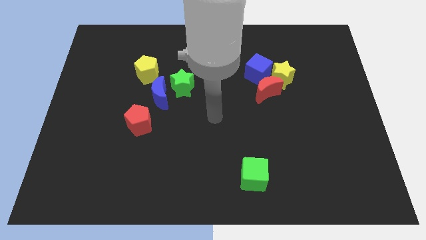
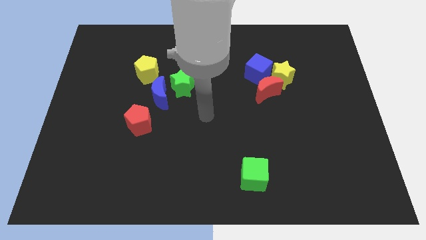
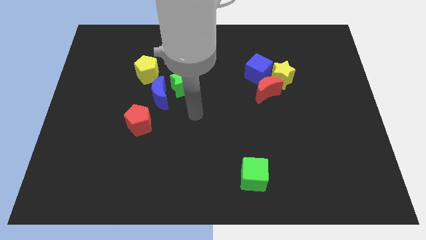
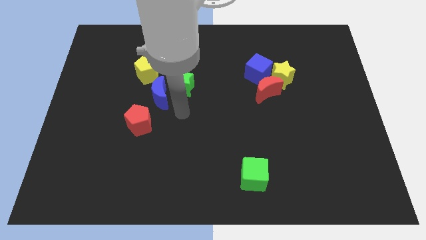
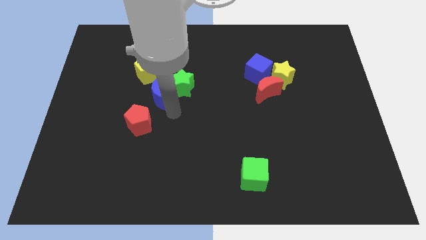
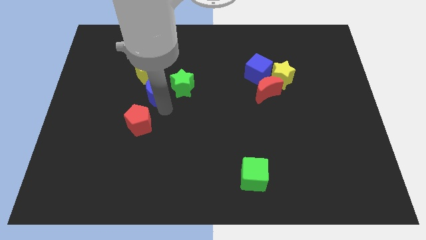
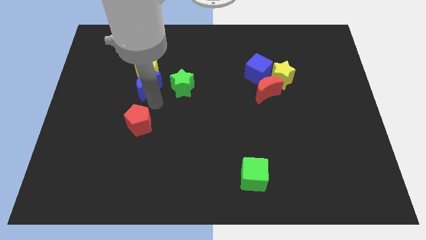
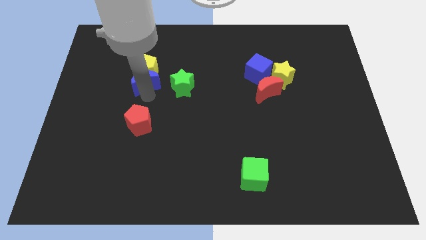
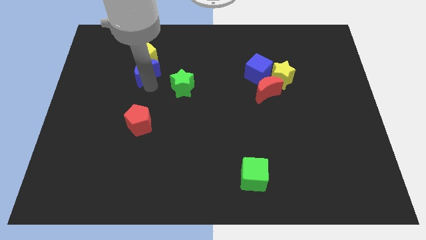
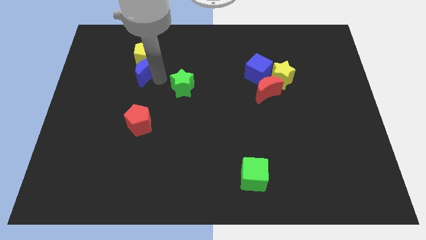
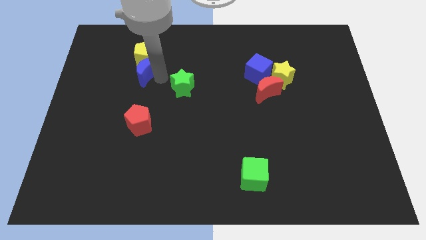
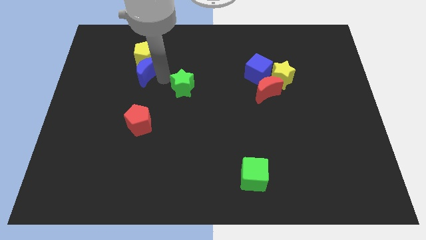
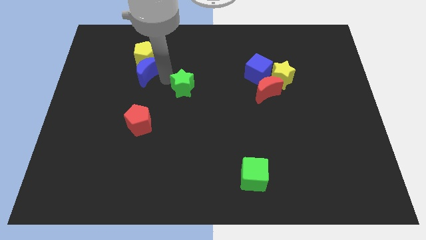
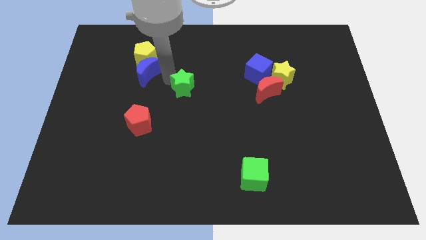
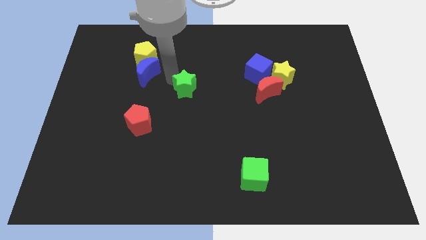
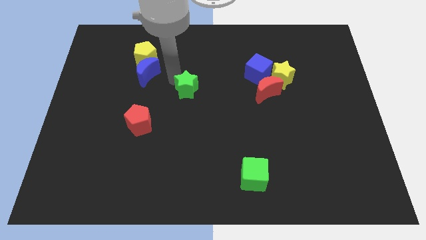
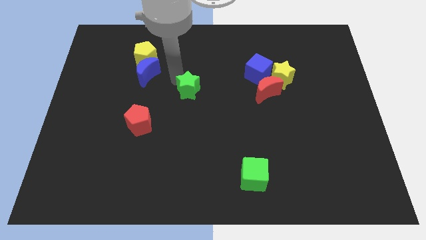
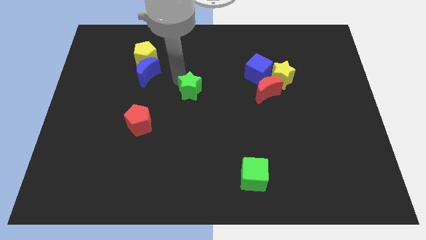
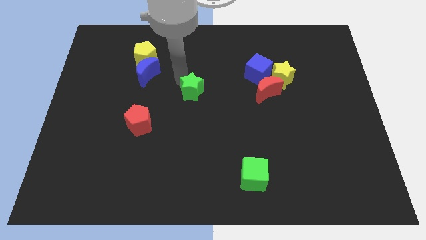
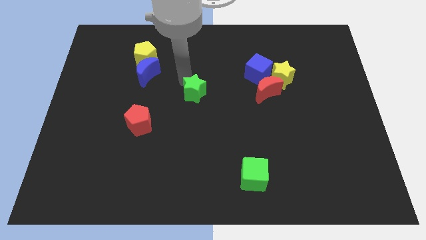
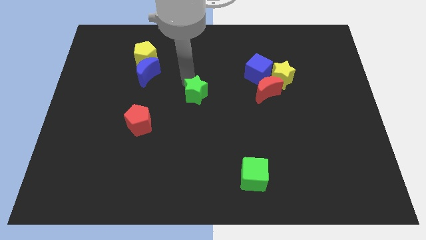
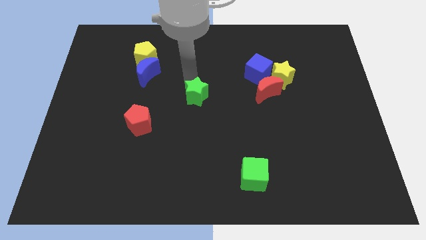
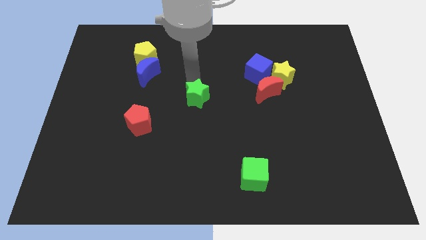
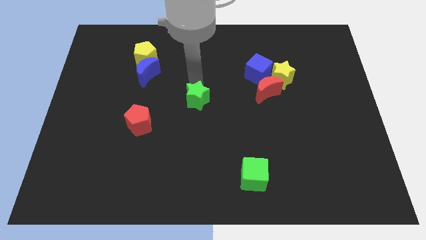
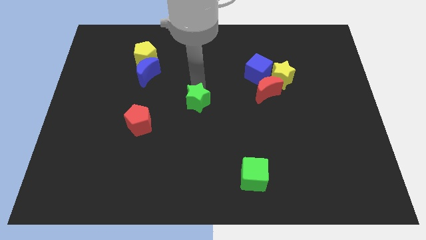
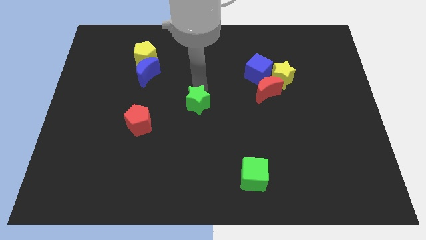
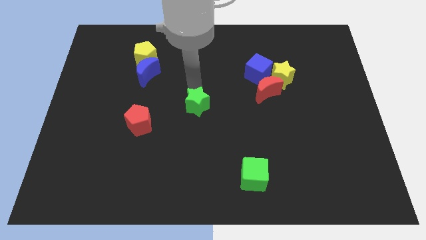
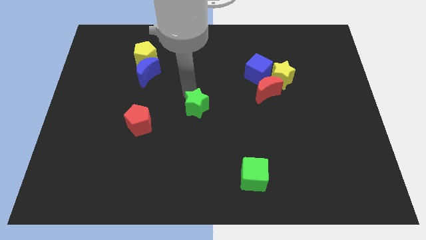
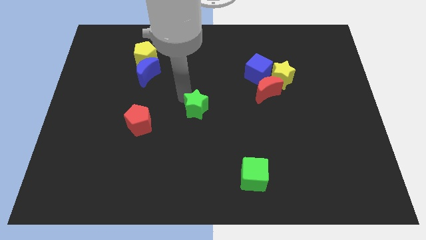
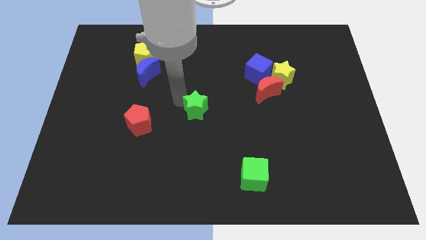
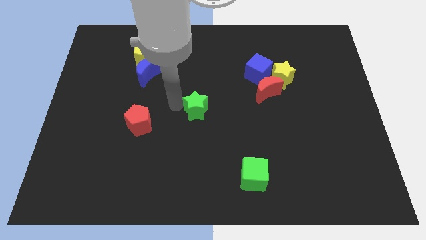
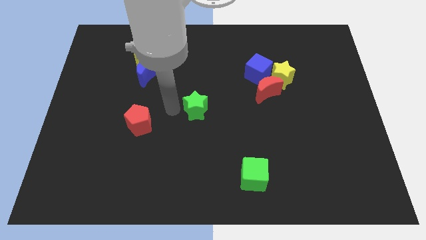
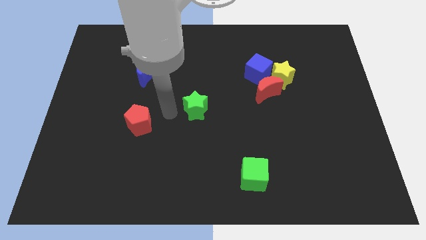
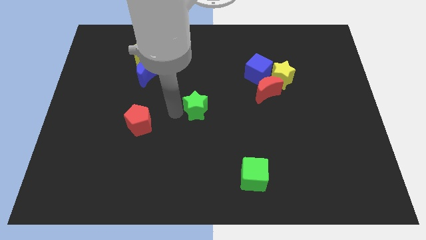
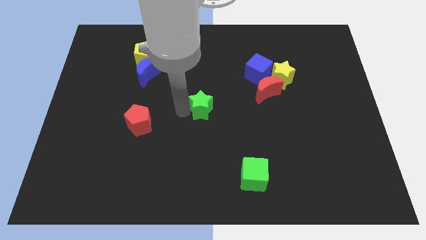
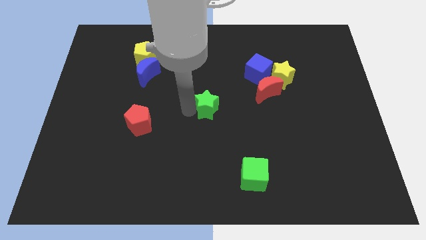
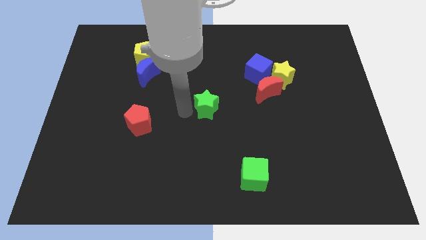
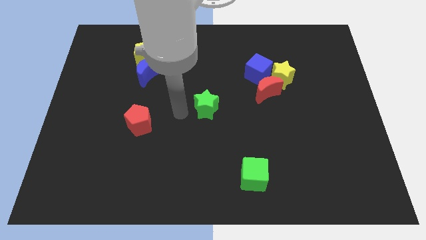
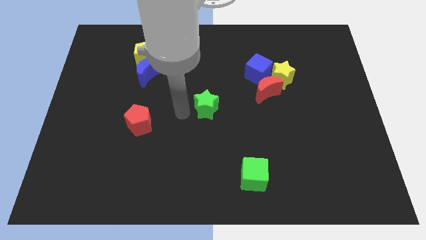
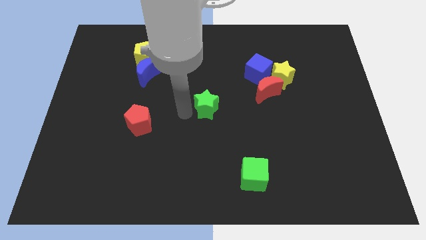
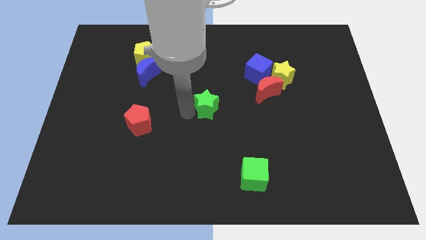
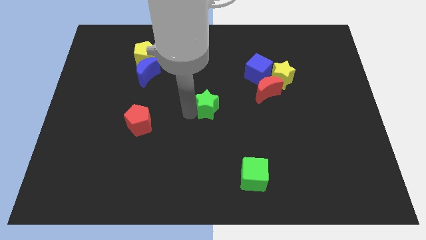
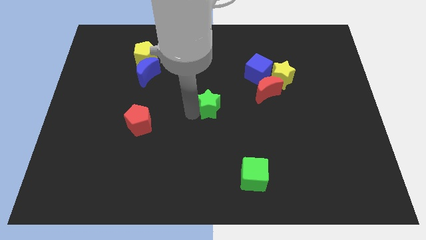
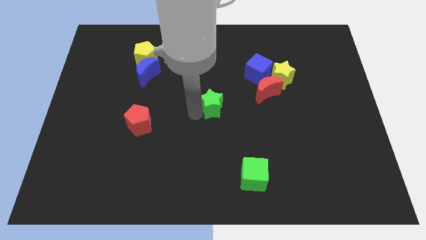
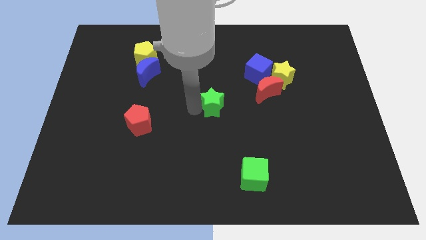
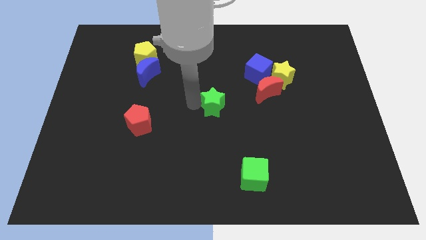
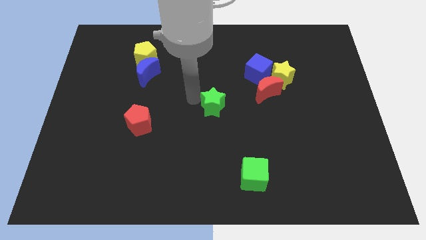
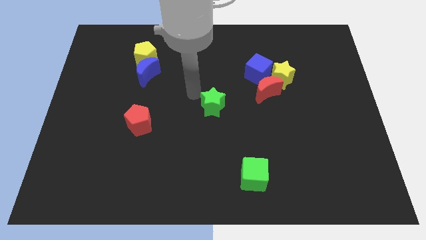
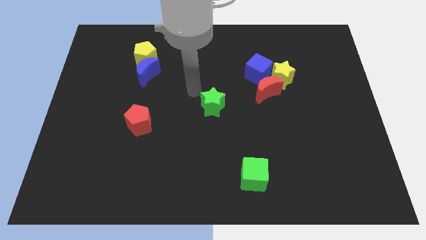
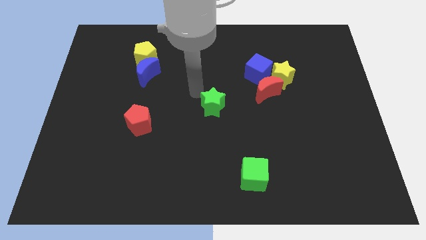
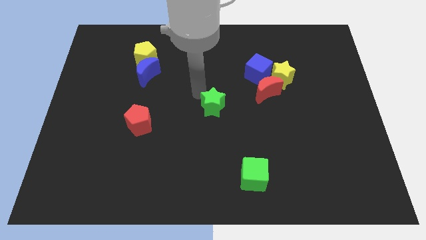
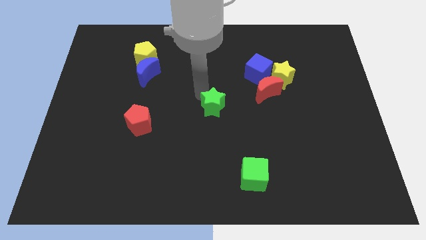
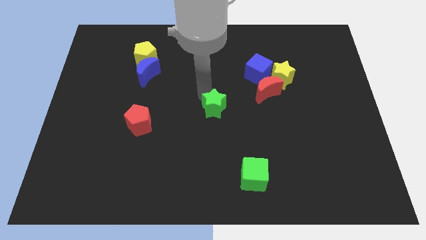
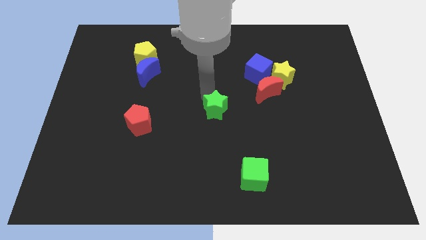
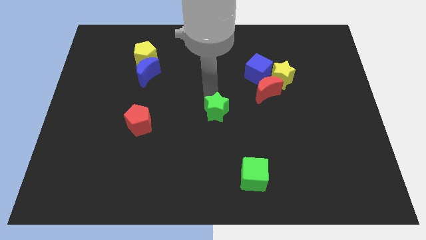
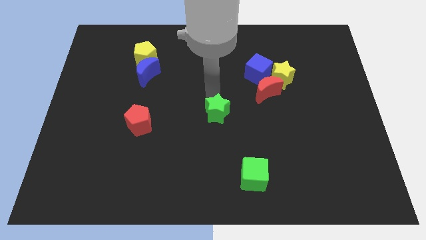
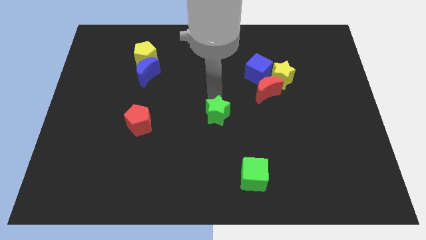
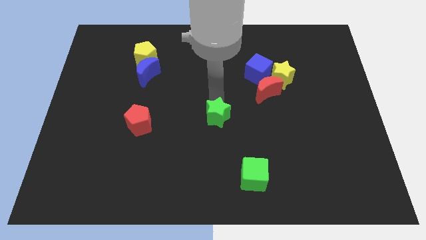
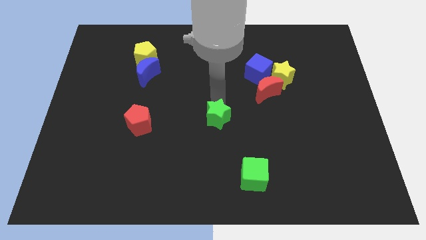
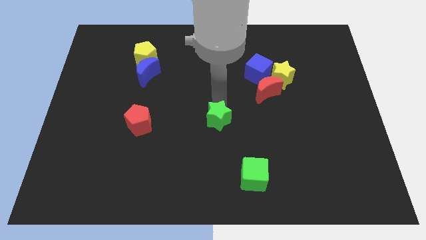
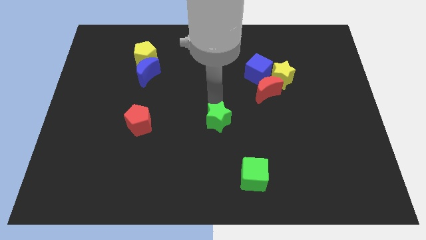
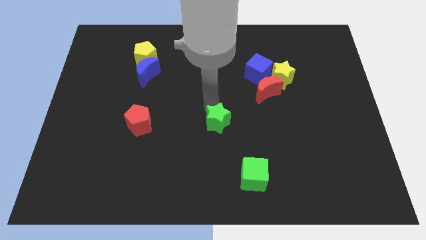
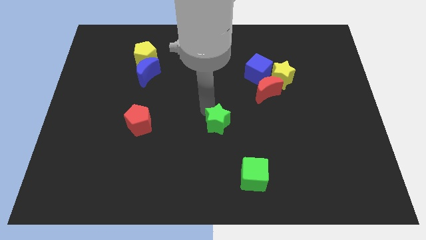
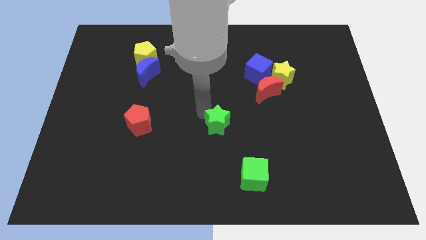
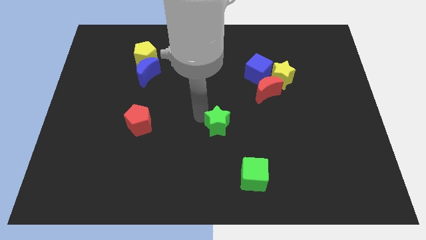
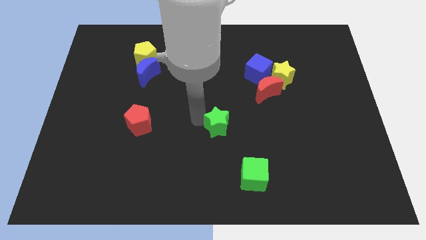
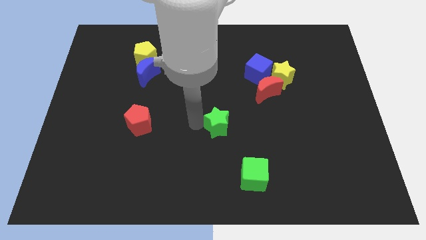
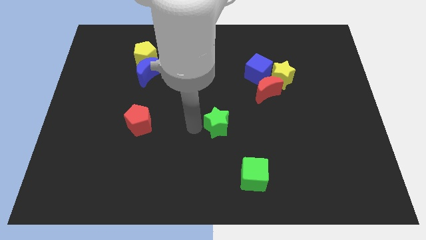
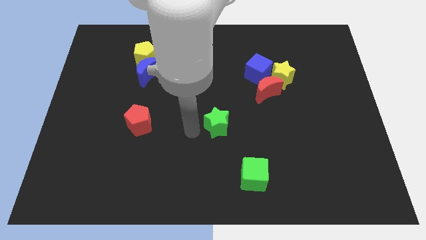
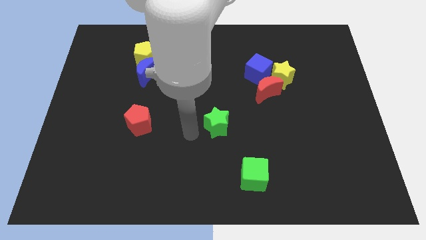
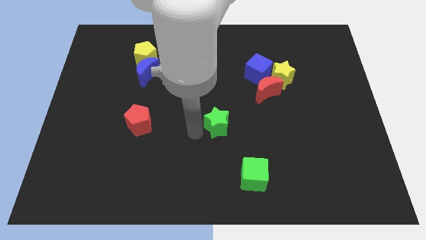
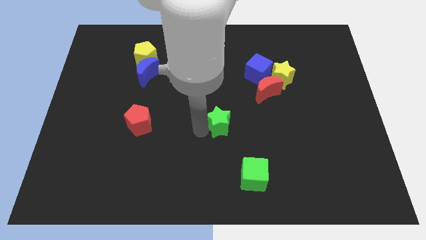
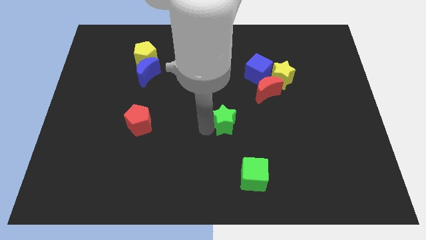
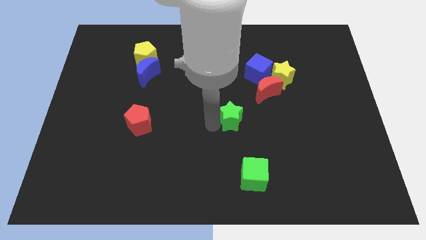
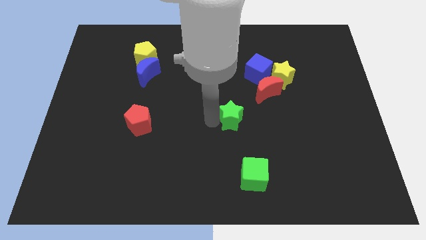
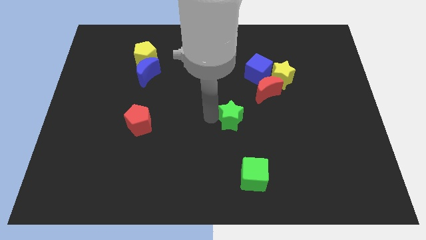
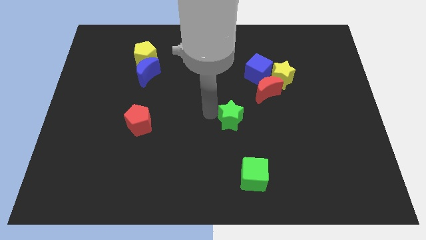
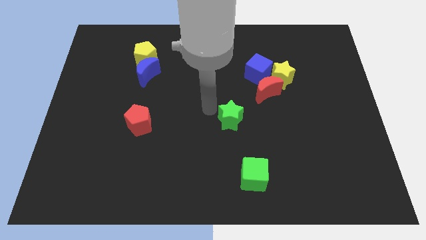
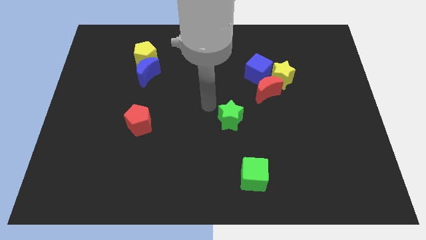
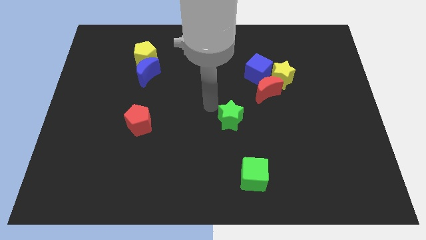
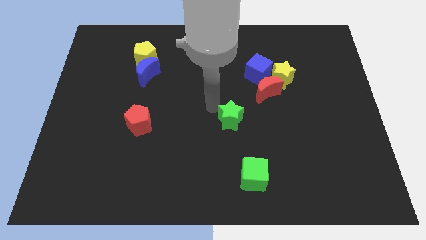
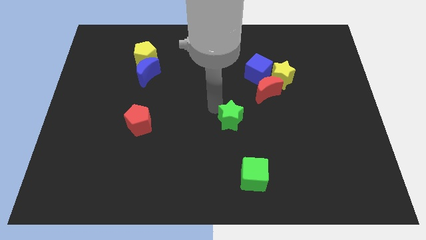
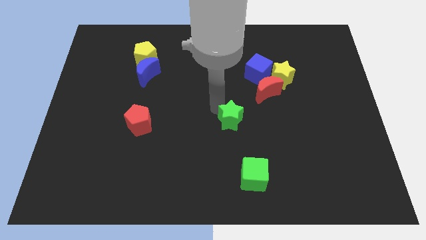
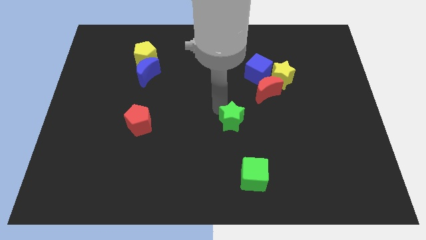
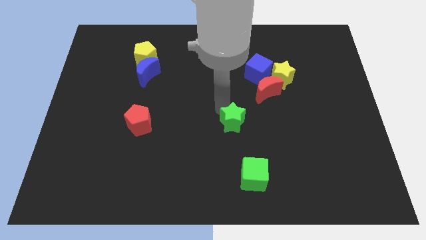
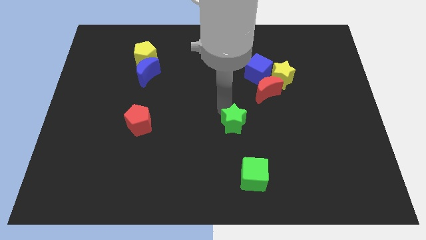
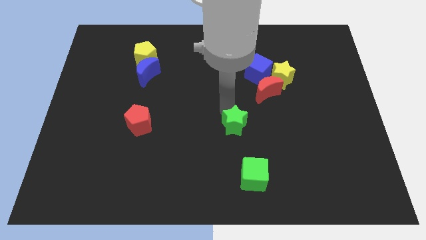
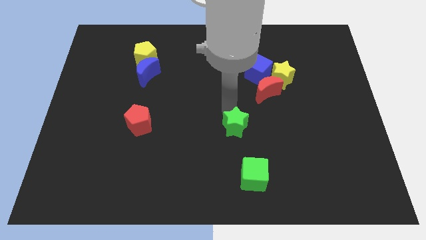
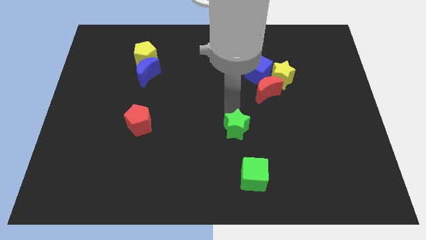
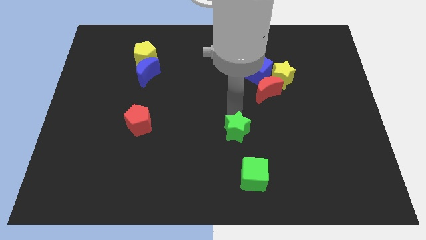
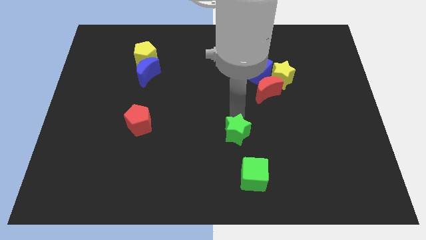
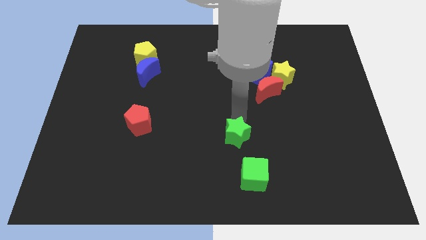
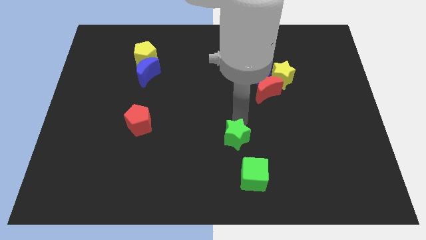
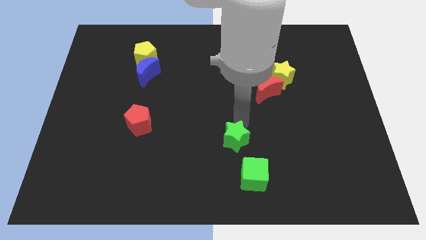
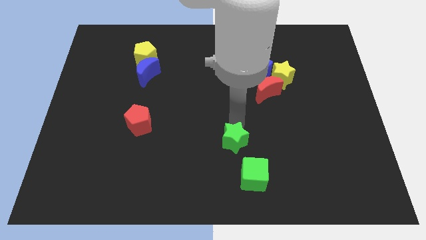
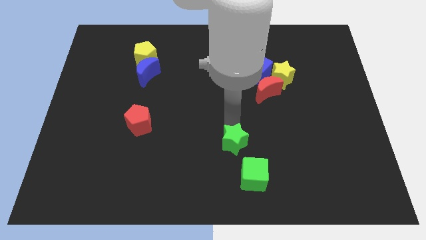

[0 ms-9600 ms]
push the green star downwards and then right
